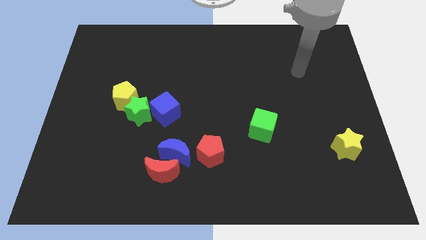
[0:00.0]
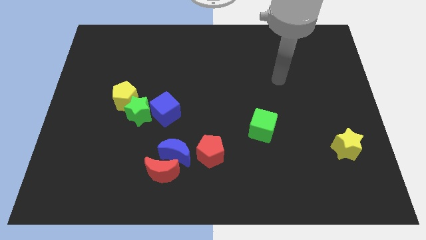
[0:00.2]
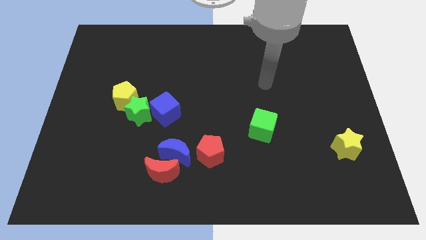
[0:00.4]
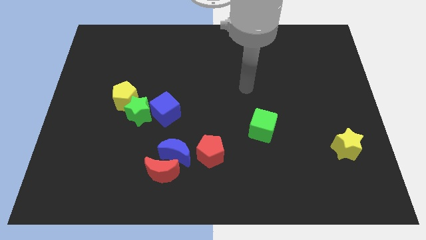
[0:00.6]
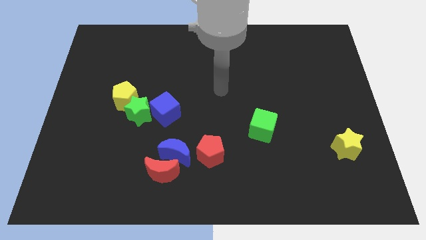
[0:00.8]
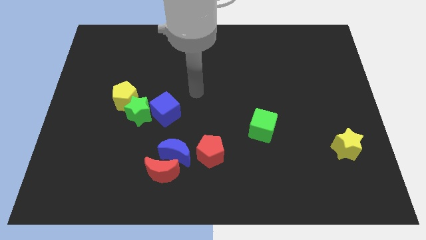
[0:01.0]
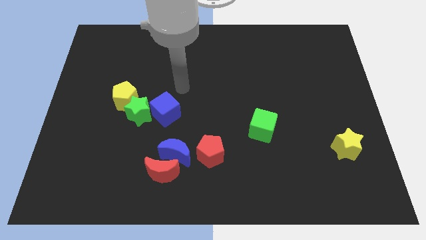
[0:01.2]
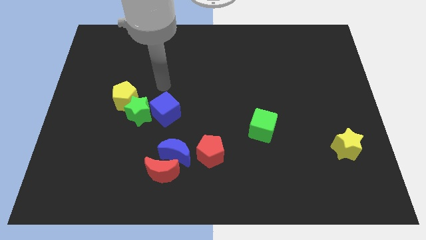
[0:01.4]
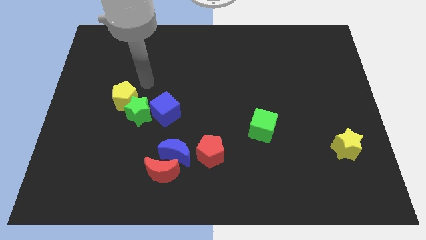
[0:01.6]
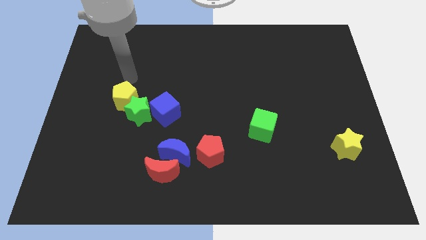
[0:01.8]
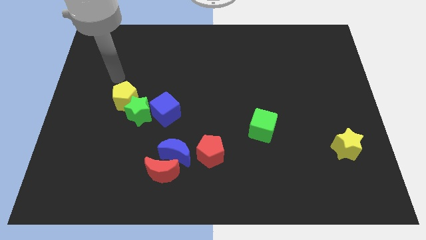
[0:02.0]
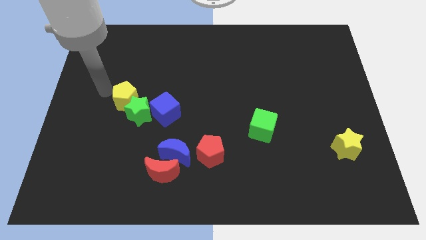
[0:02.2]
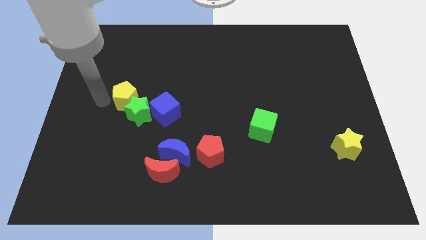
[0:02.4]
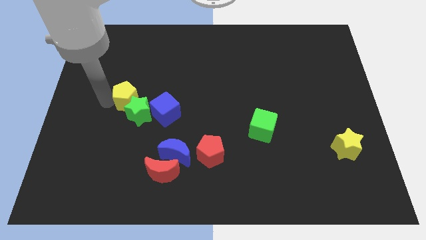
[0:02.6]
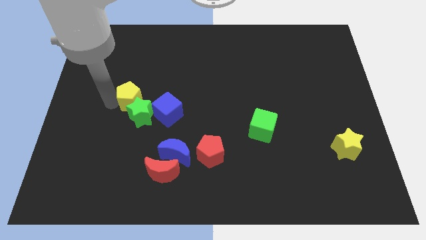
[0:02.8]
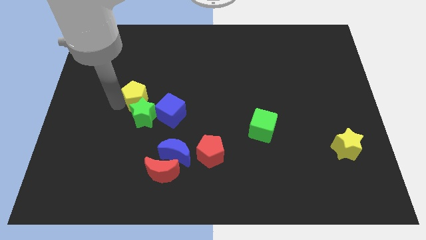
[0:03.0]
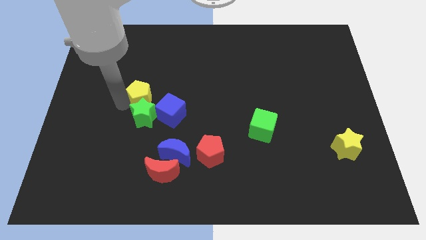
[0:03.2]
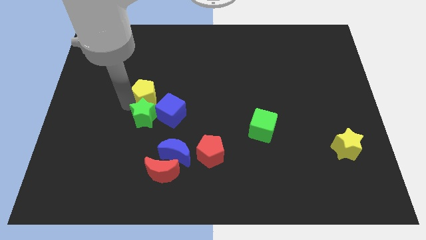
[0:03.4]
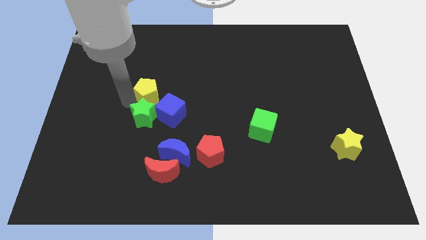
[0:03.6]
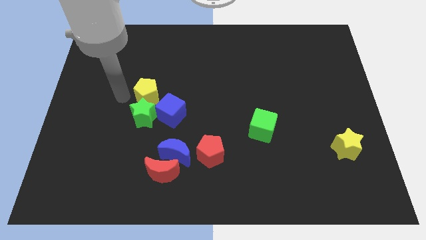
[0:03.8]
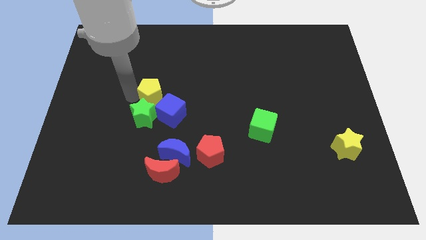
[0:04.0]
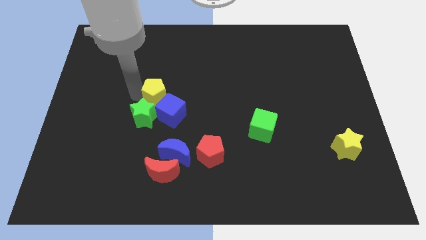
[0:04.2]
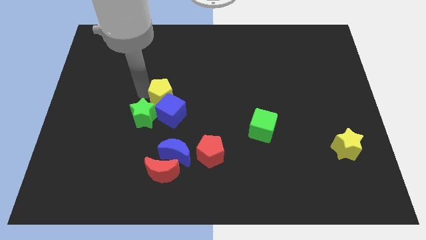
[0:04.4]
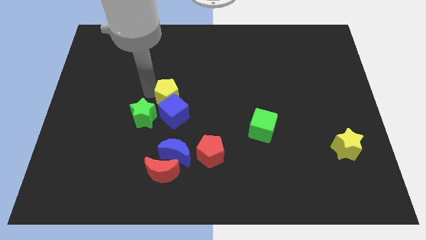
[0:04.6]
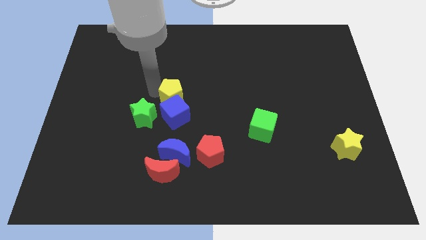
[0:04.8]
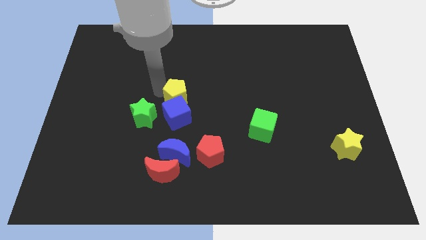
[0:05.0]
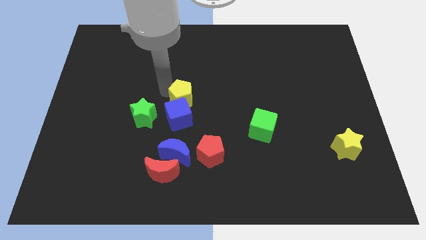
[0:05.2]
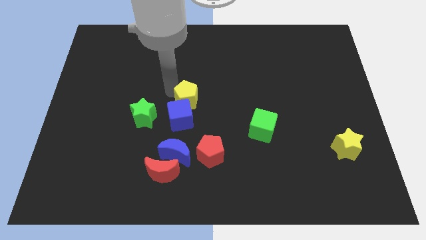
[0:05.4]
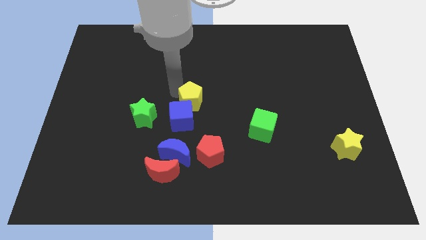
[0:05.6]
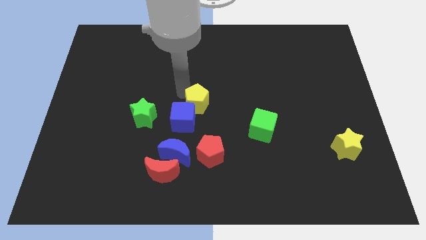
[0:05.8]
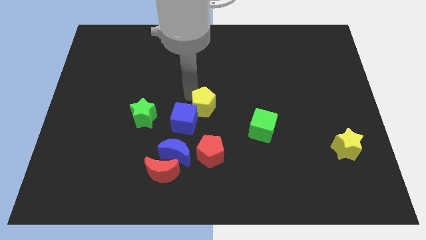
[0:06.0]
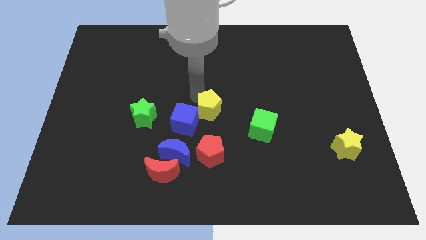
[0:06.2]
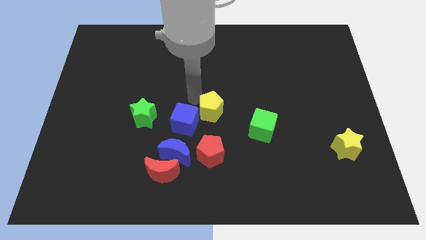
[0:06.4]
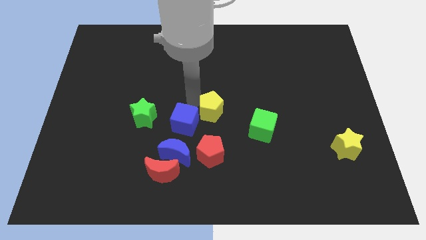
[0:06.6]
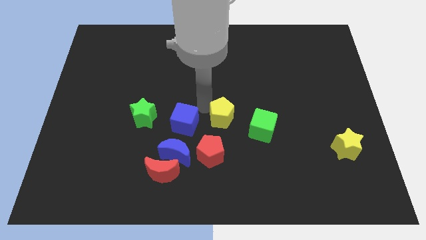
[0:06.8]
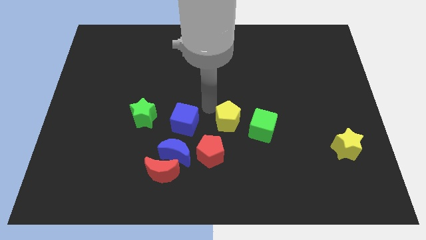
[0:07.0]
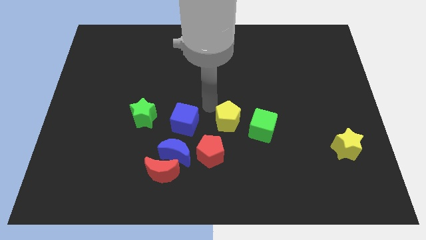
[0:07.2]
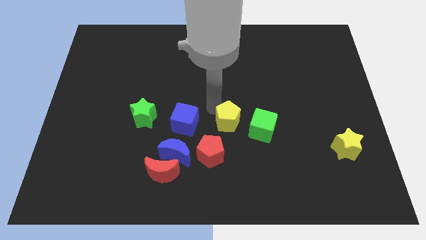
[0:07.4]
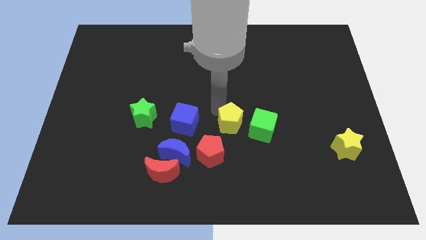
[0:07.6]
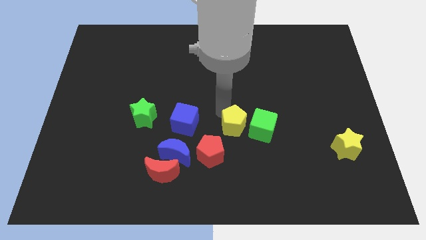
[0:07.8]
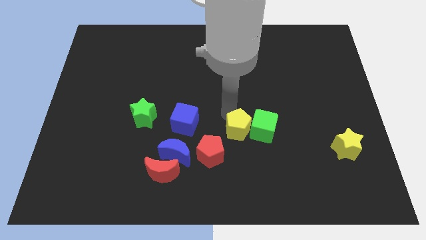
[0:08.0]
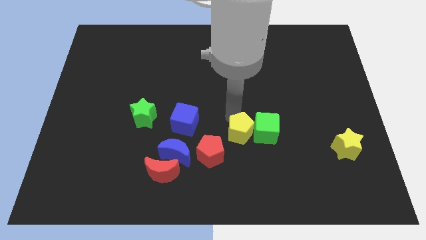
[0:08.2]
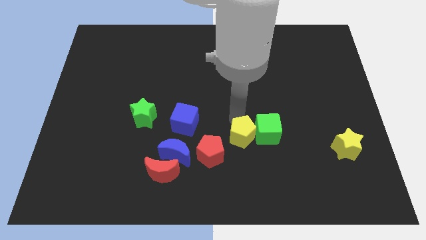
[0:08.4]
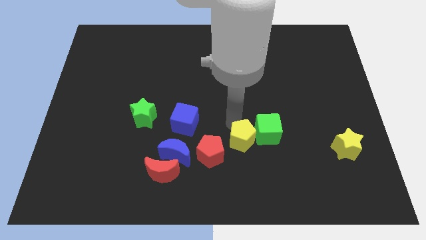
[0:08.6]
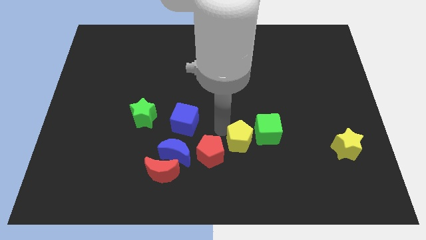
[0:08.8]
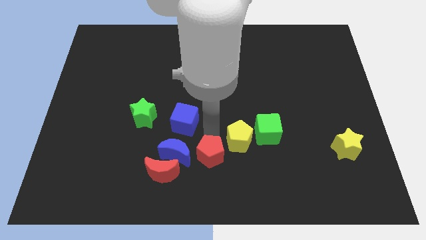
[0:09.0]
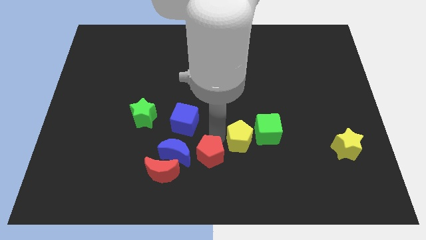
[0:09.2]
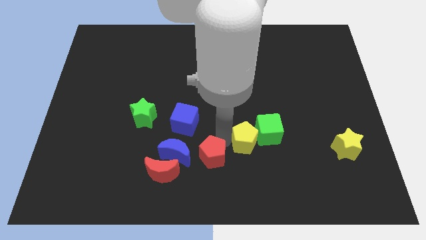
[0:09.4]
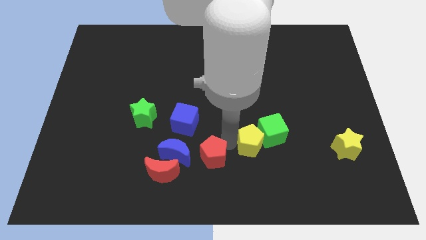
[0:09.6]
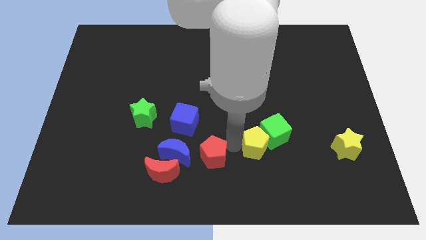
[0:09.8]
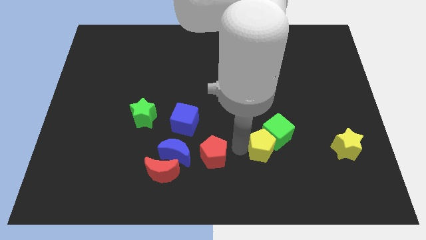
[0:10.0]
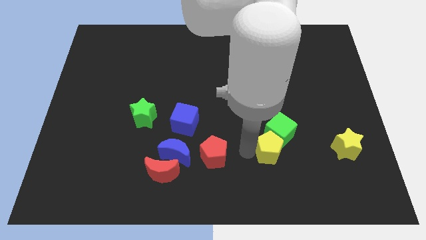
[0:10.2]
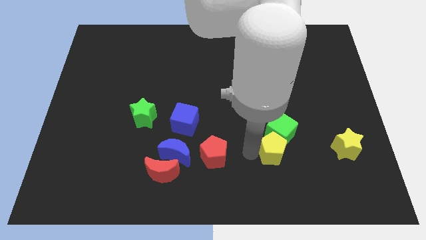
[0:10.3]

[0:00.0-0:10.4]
slide the yellow pentagon to the left of the yellow star

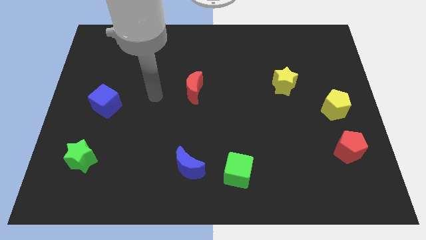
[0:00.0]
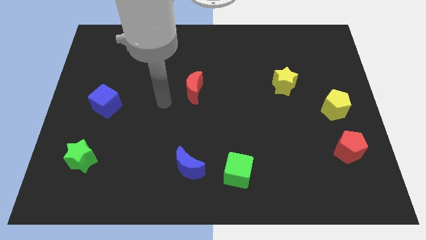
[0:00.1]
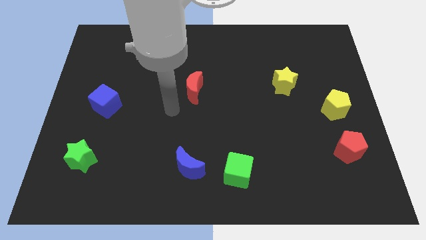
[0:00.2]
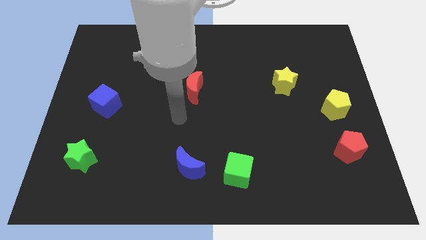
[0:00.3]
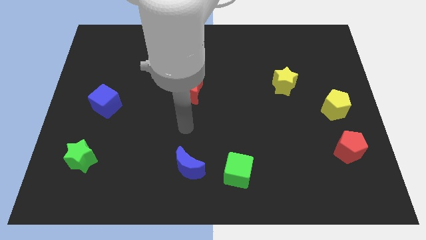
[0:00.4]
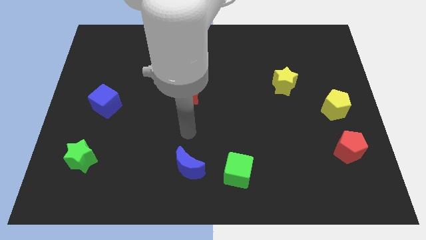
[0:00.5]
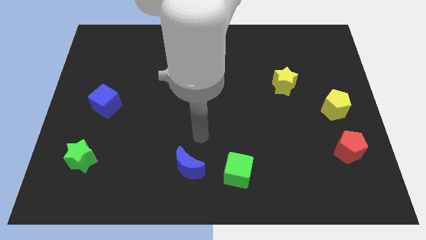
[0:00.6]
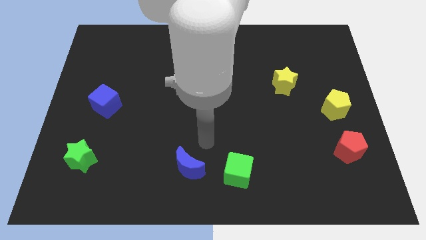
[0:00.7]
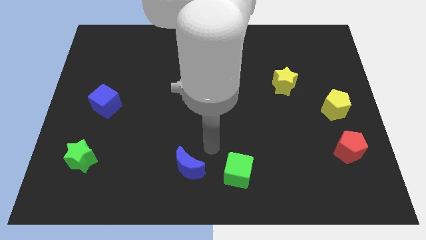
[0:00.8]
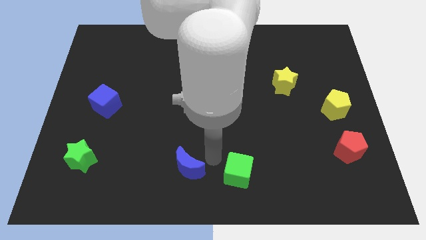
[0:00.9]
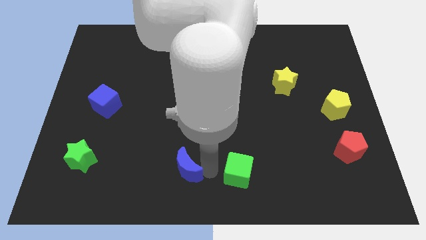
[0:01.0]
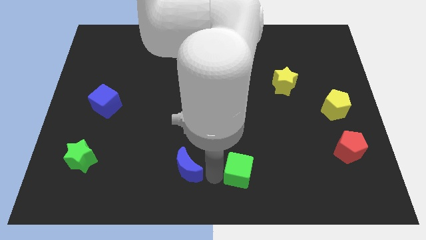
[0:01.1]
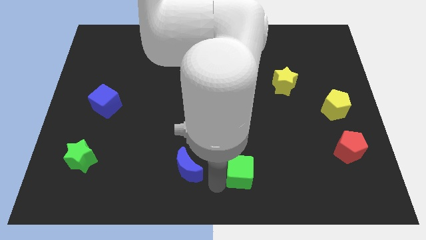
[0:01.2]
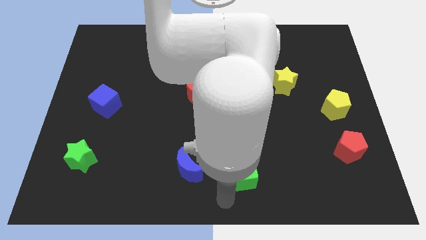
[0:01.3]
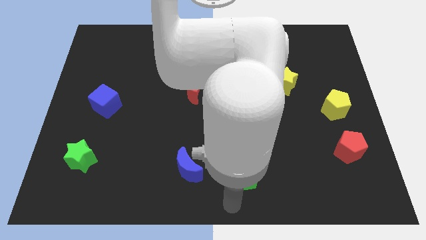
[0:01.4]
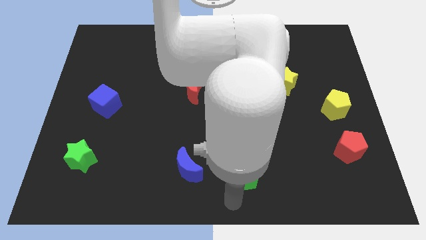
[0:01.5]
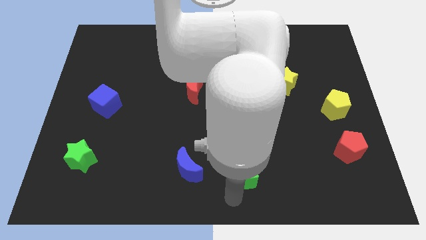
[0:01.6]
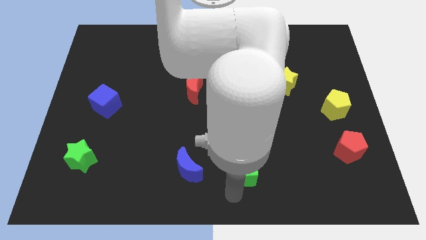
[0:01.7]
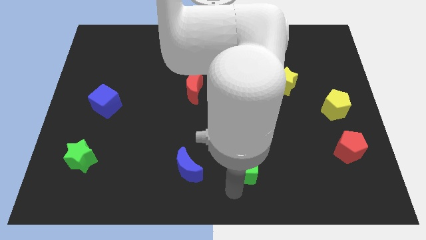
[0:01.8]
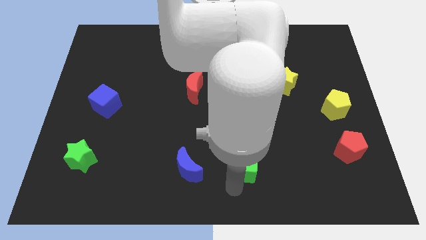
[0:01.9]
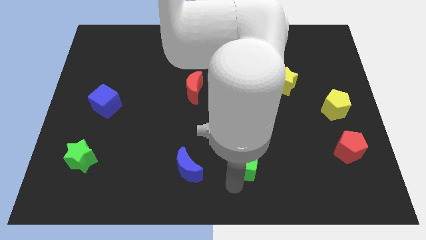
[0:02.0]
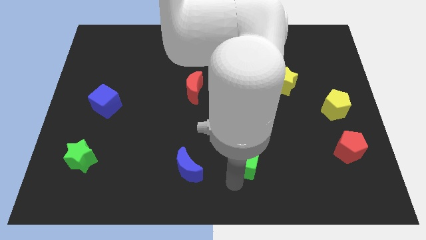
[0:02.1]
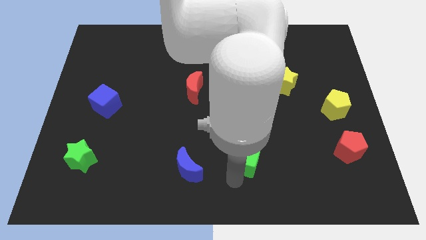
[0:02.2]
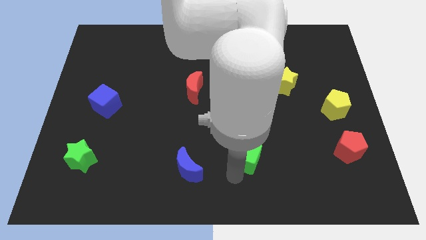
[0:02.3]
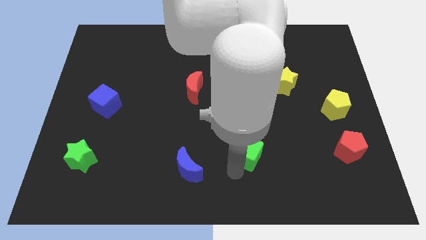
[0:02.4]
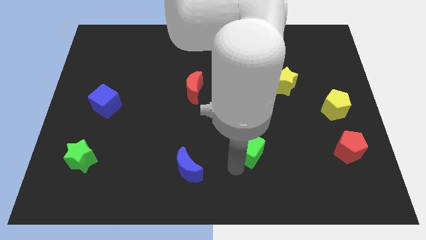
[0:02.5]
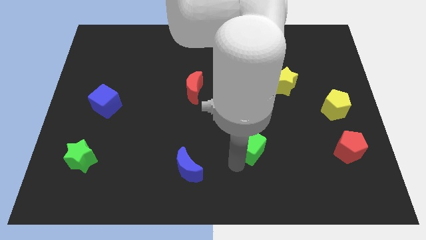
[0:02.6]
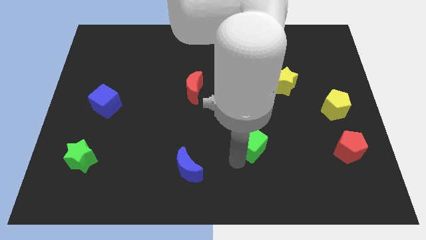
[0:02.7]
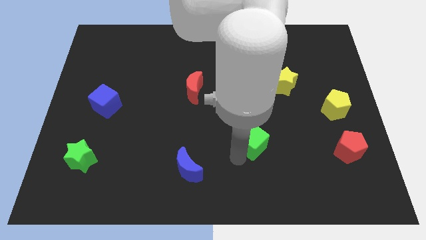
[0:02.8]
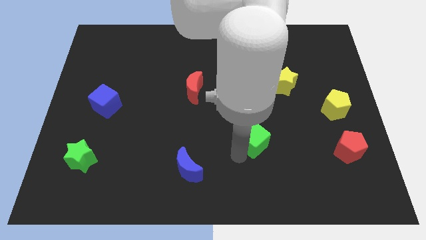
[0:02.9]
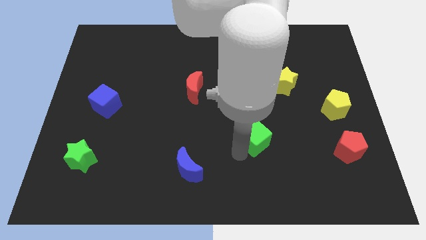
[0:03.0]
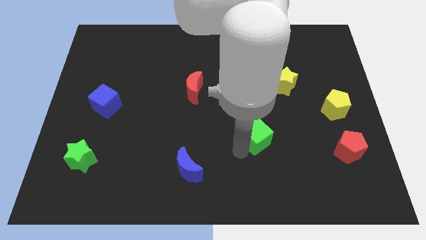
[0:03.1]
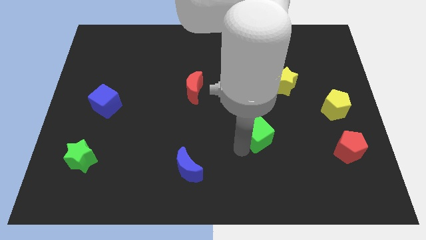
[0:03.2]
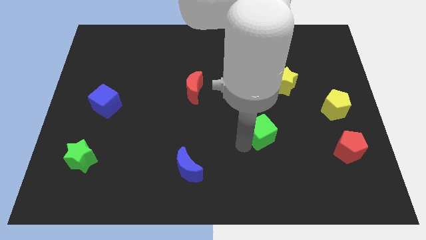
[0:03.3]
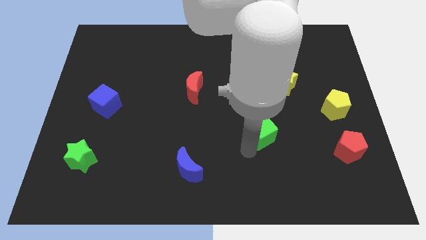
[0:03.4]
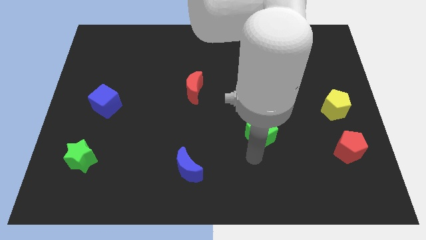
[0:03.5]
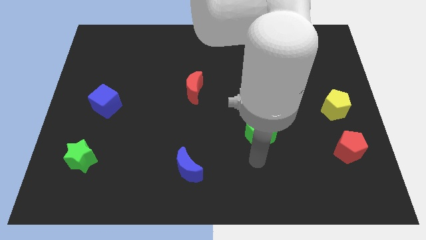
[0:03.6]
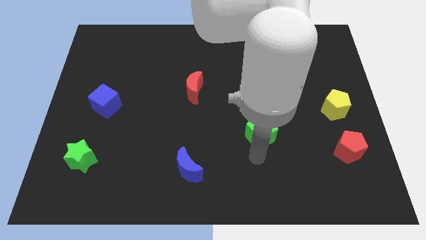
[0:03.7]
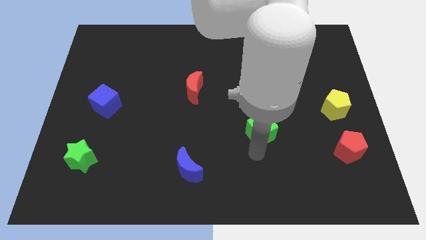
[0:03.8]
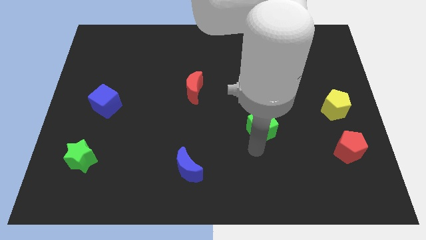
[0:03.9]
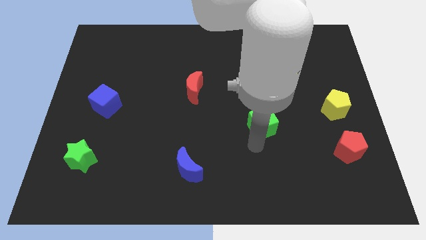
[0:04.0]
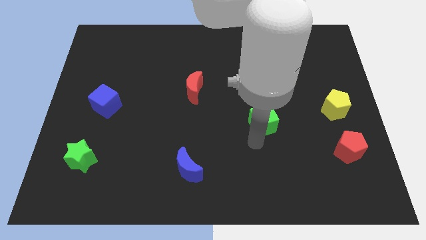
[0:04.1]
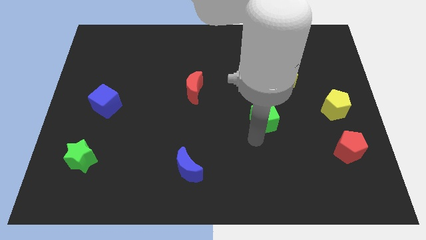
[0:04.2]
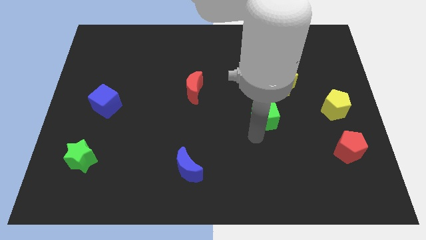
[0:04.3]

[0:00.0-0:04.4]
put the green cube to the bottom left of the yellow star
